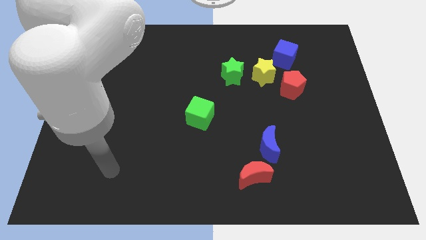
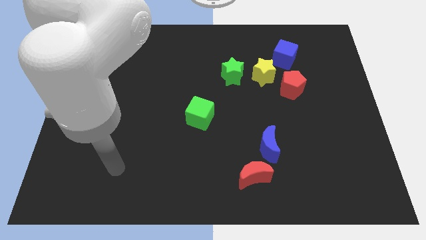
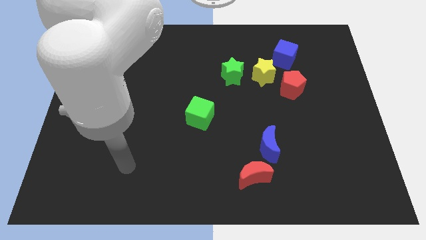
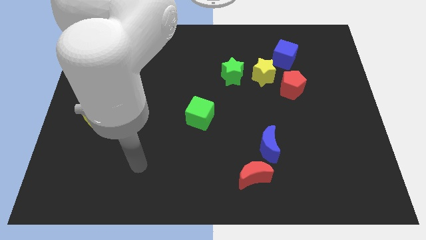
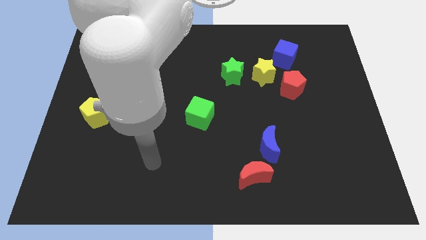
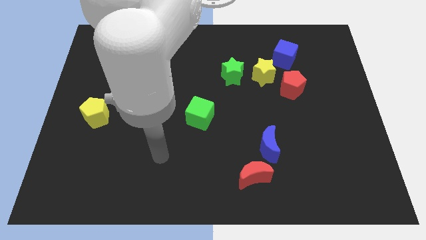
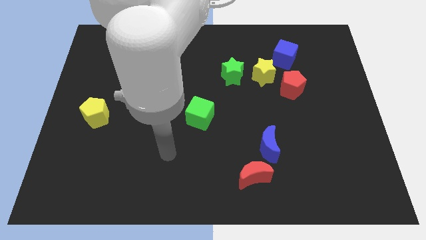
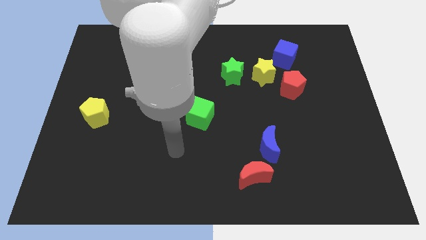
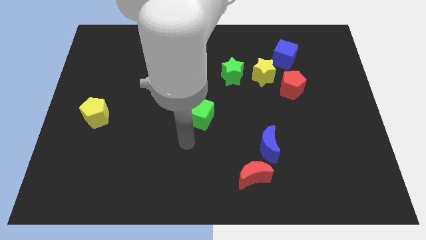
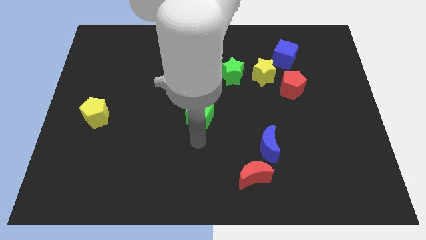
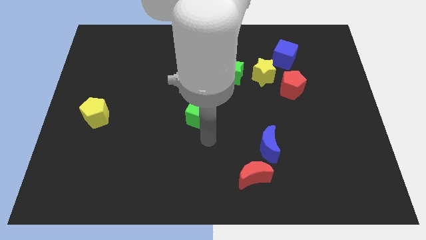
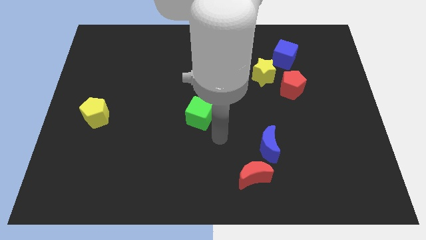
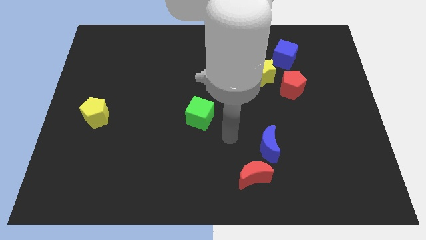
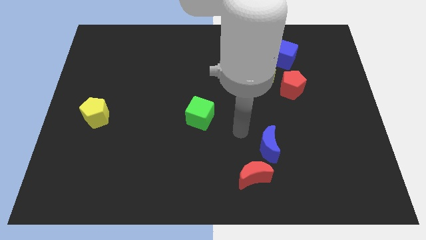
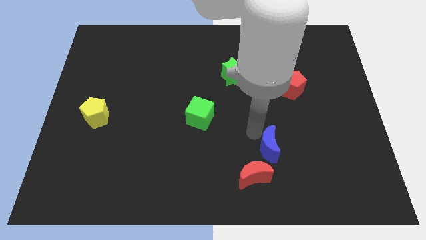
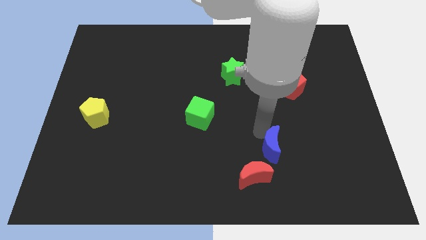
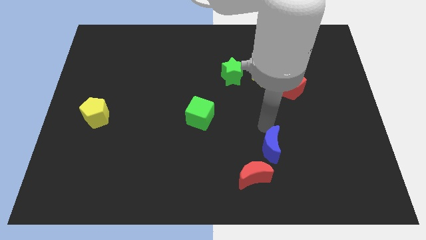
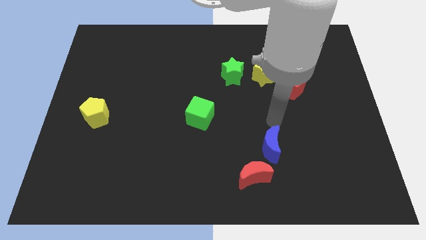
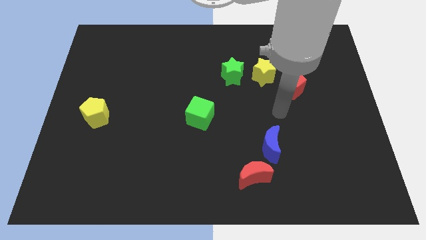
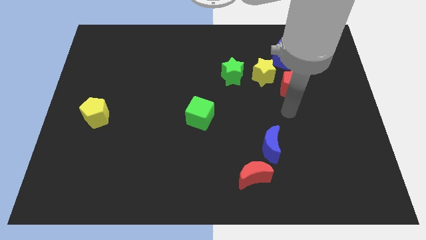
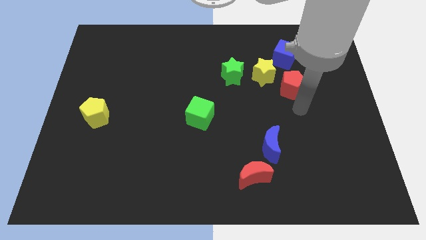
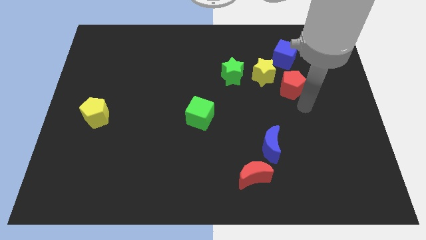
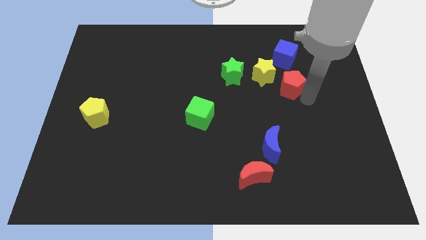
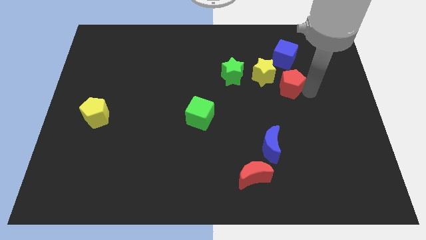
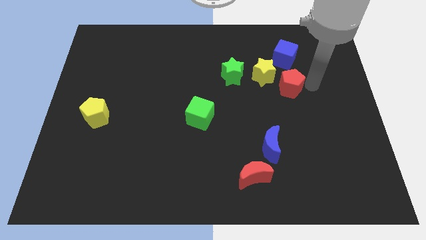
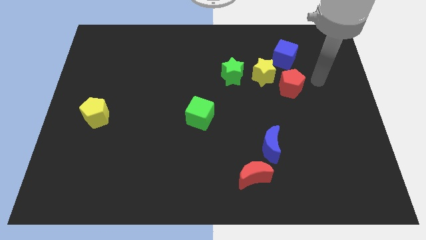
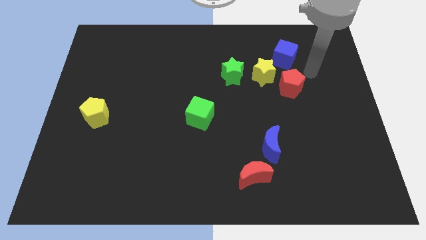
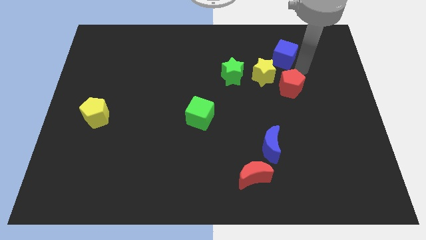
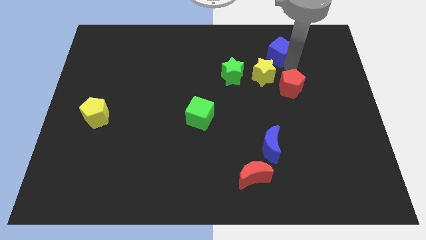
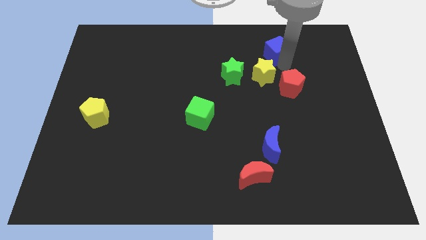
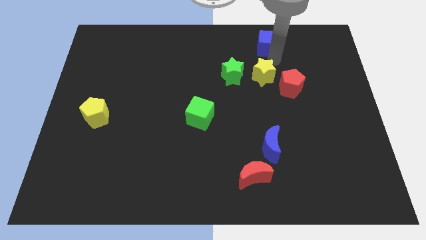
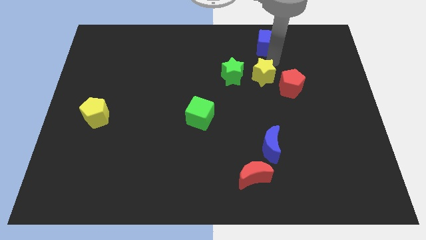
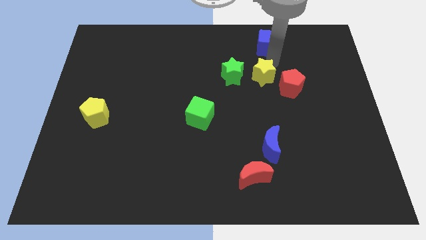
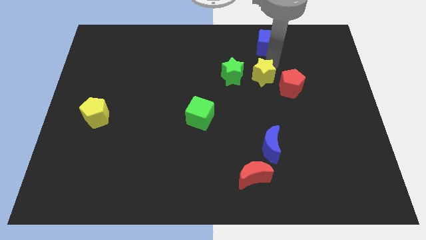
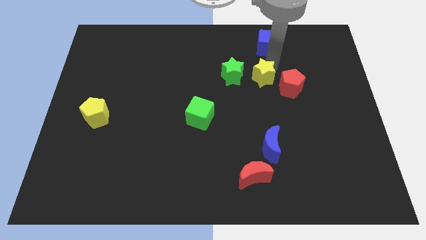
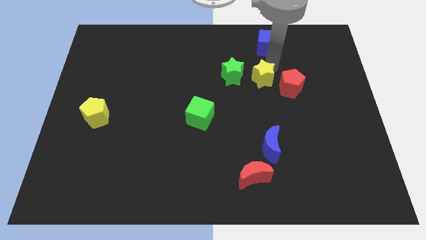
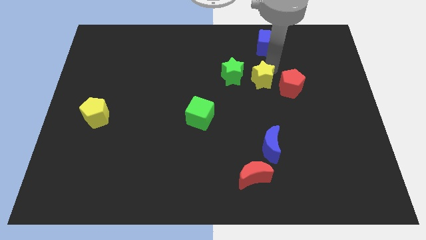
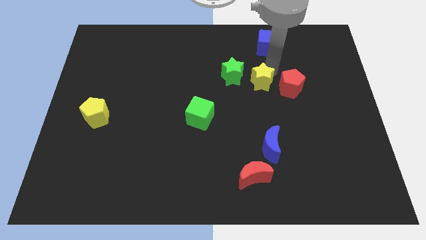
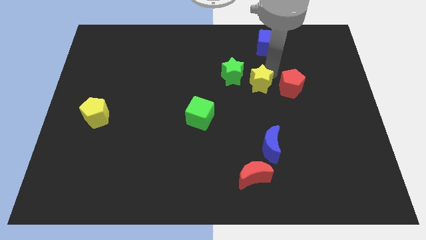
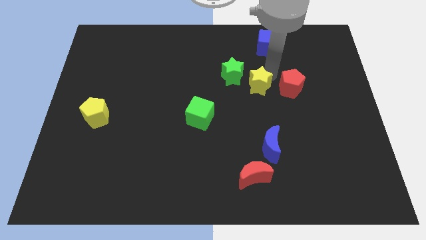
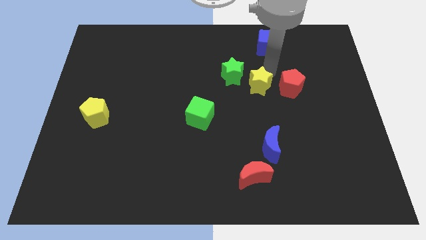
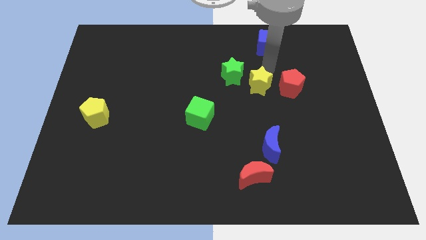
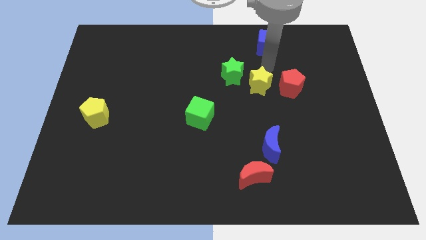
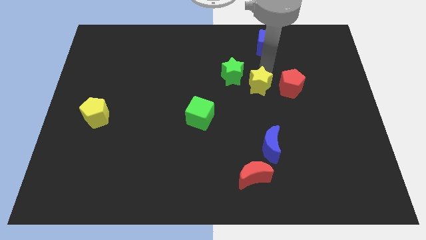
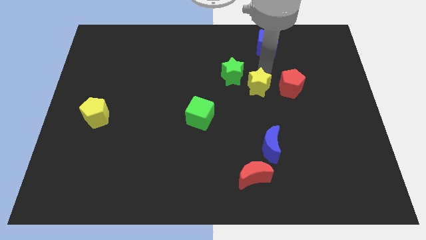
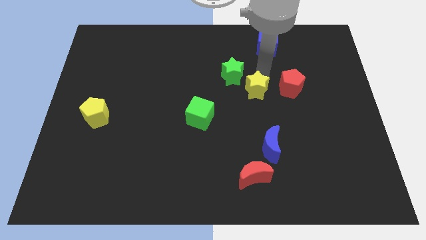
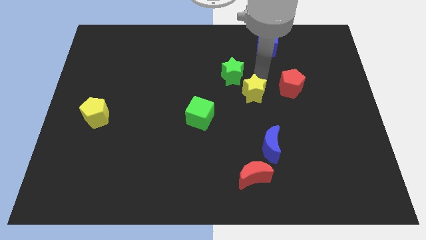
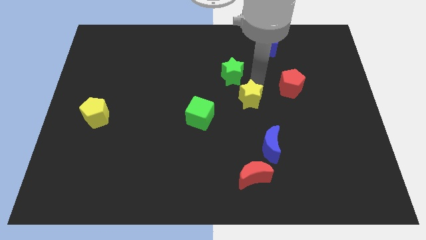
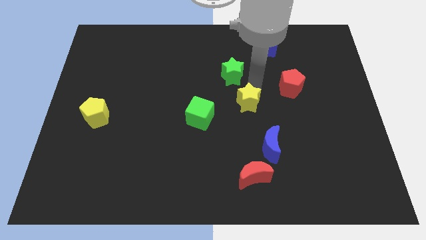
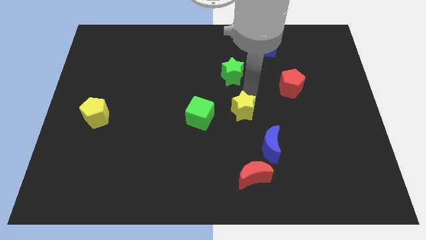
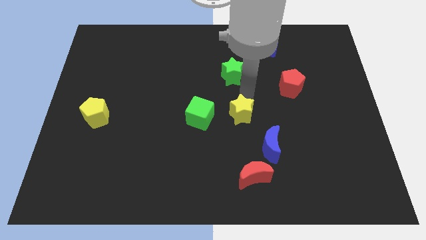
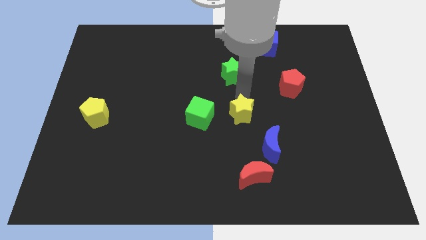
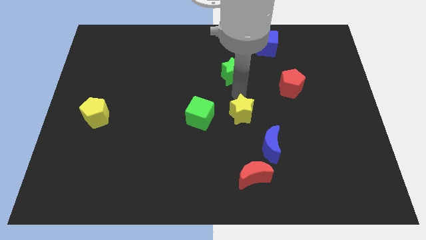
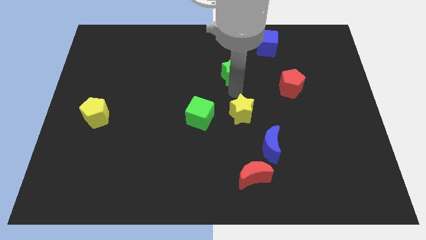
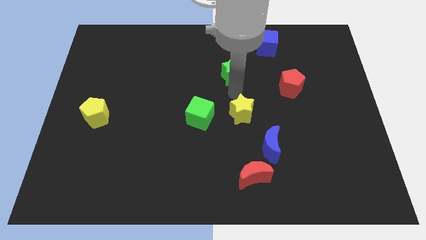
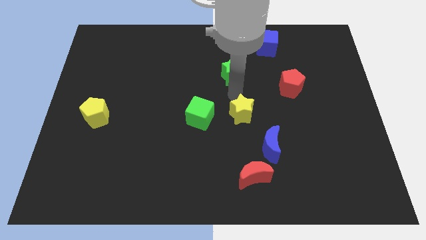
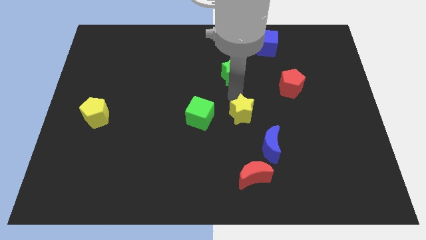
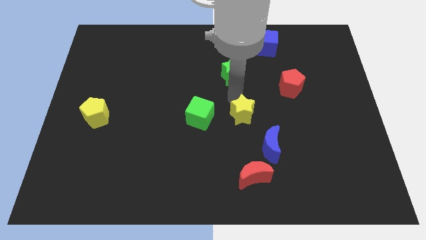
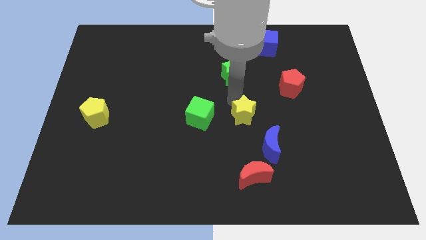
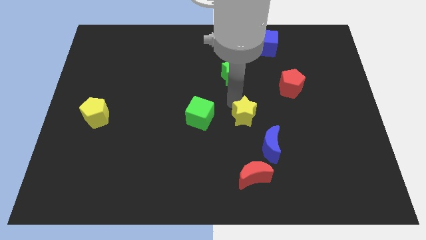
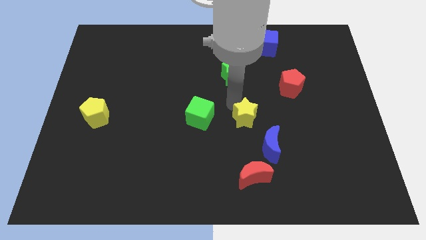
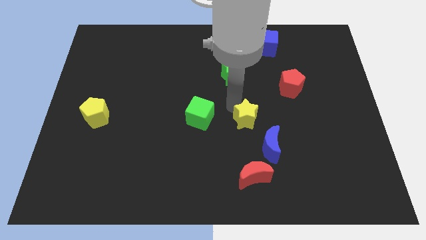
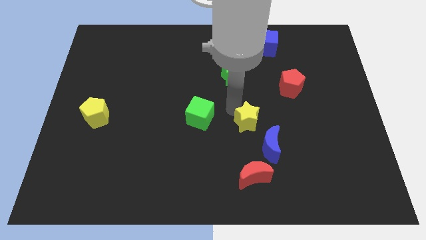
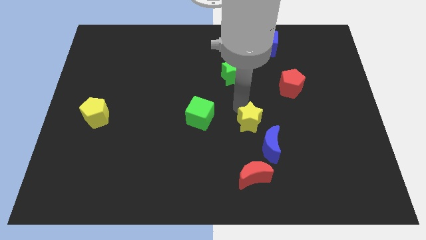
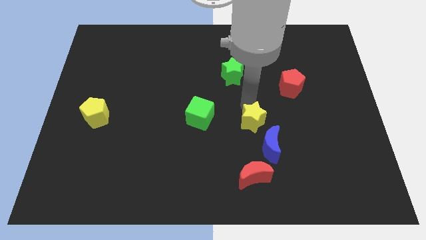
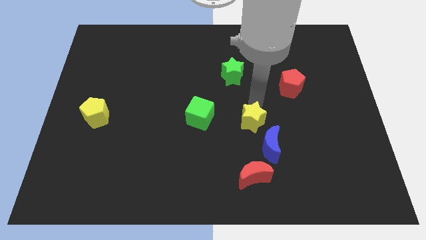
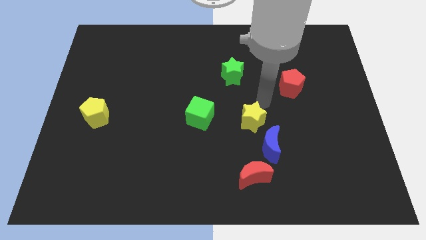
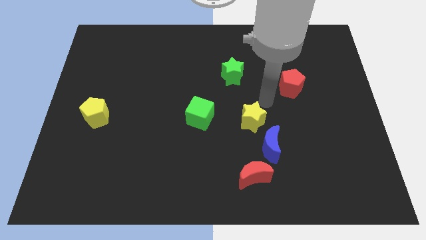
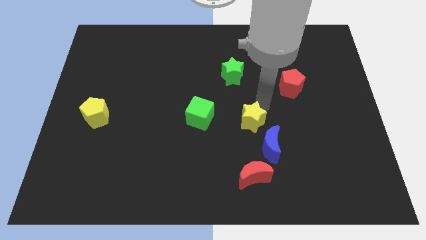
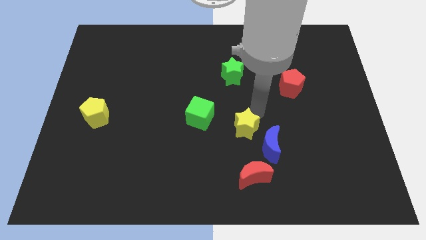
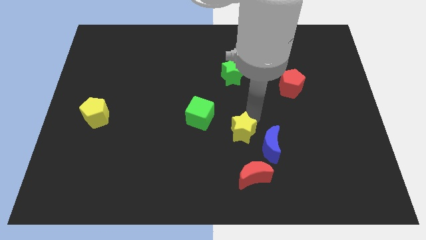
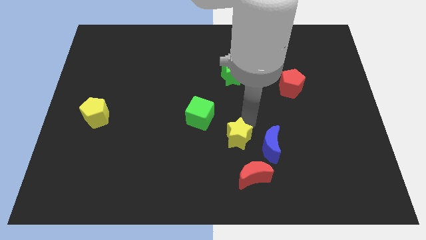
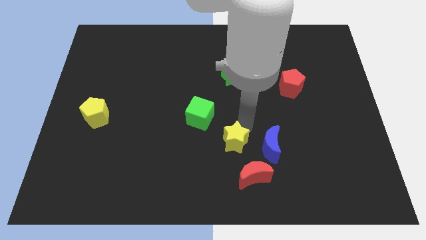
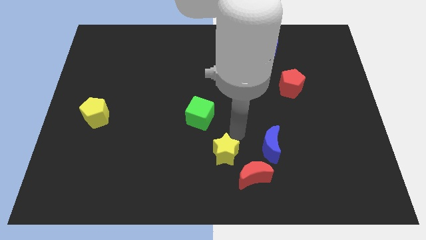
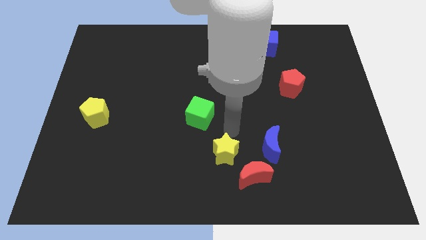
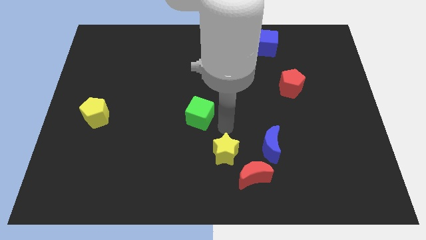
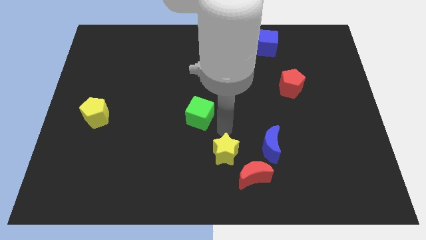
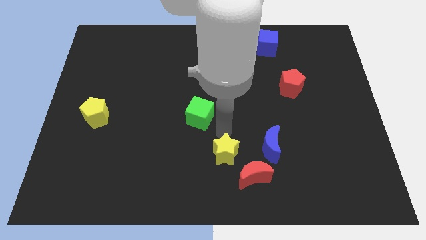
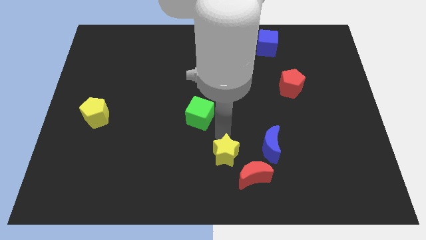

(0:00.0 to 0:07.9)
move the yellow star to the bottom
